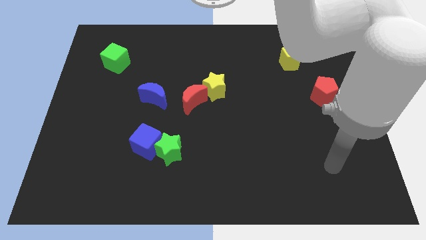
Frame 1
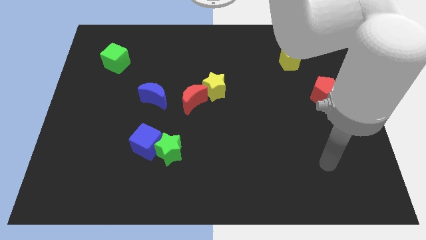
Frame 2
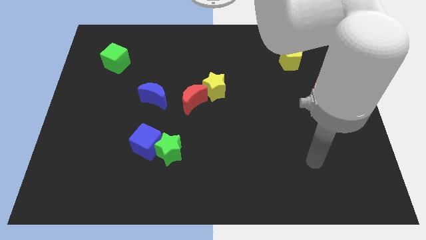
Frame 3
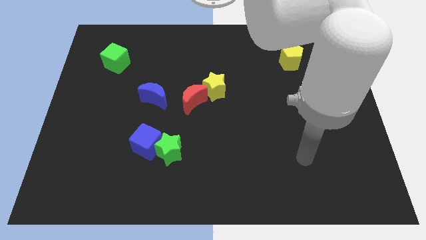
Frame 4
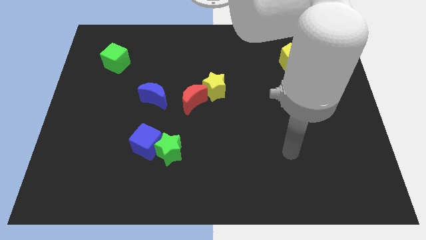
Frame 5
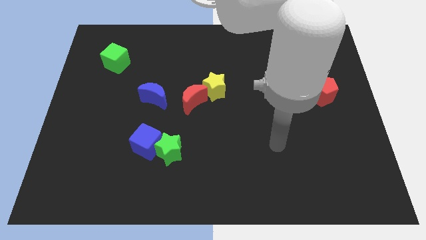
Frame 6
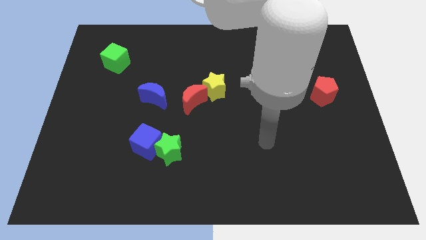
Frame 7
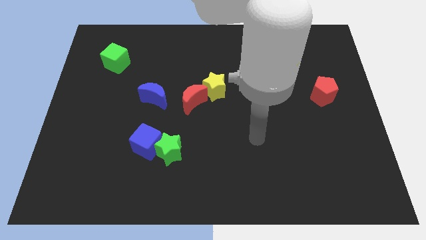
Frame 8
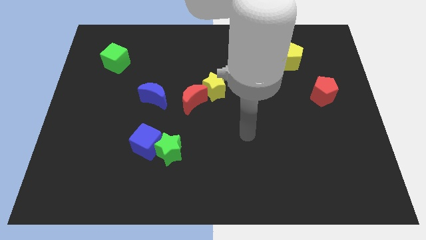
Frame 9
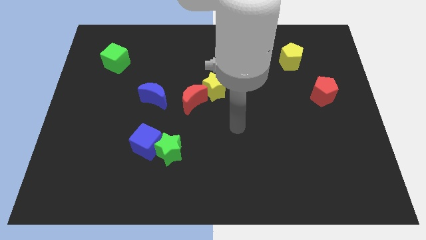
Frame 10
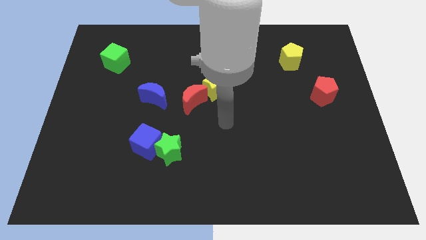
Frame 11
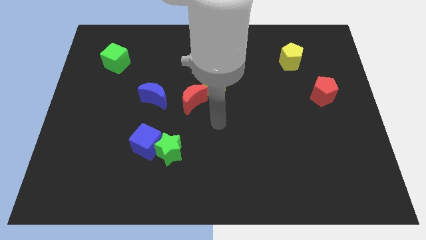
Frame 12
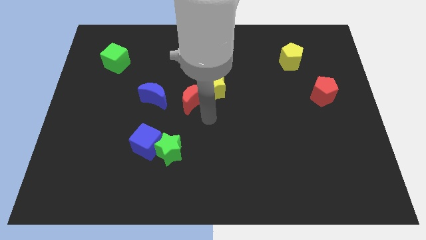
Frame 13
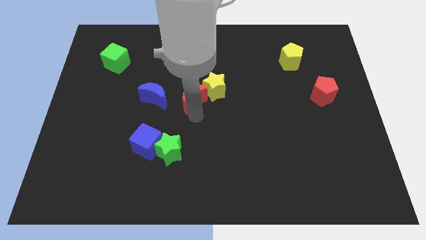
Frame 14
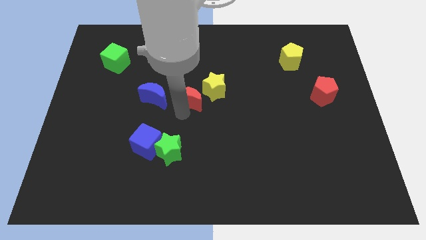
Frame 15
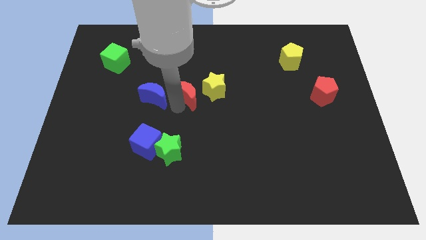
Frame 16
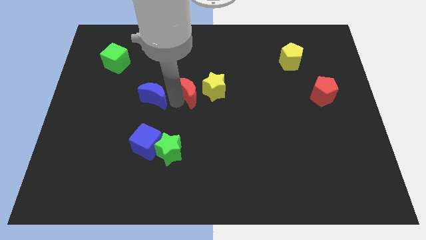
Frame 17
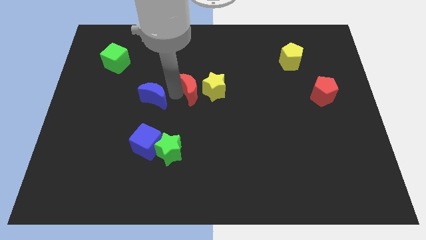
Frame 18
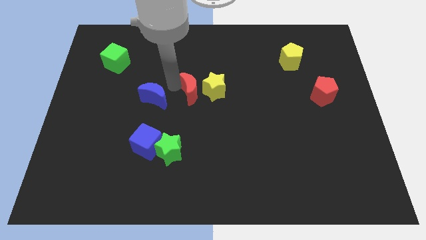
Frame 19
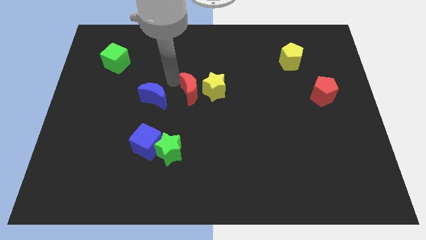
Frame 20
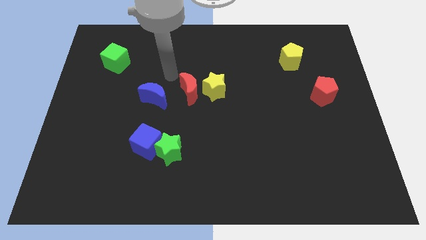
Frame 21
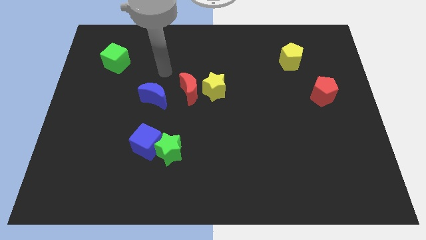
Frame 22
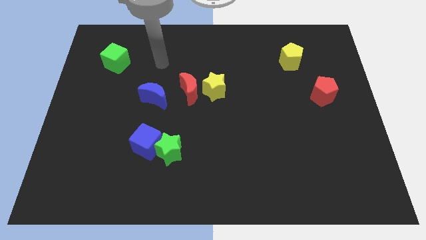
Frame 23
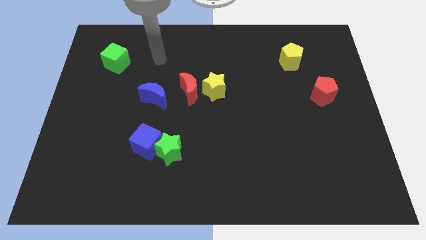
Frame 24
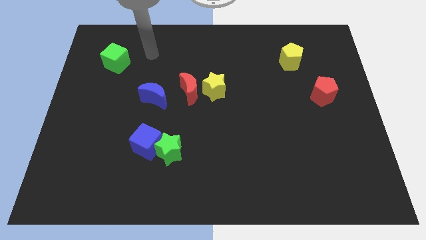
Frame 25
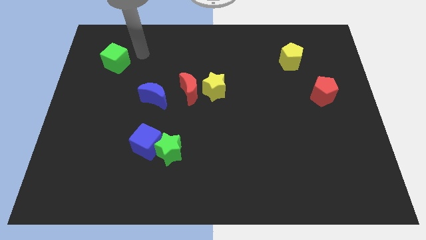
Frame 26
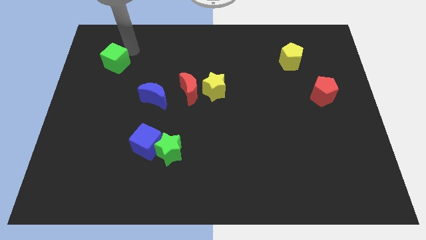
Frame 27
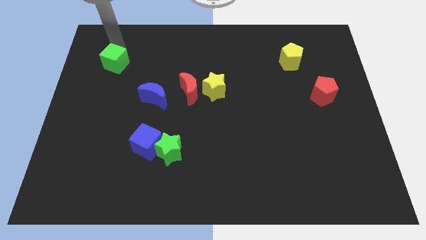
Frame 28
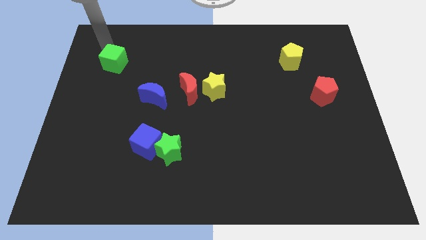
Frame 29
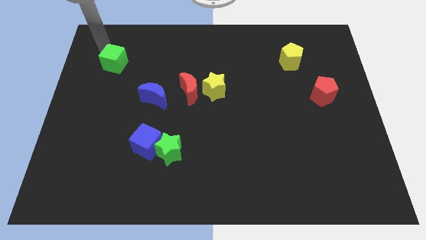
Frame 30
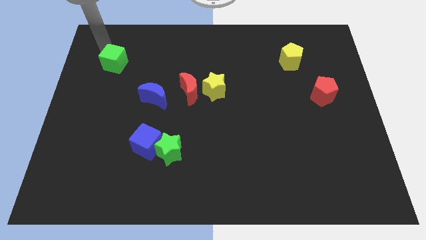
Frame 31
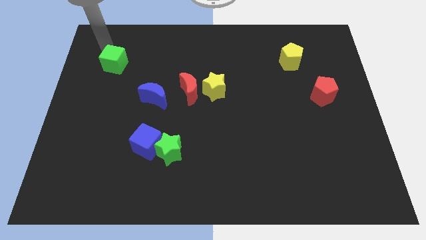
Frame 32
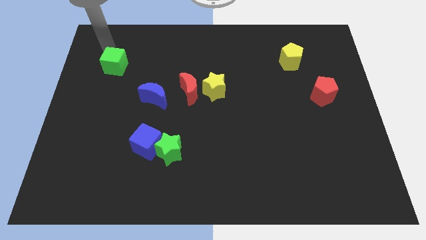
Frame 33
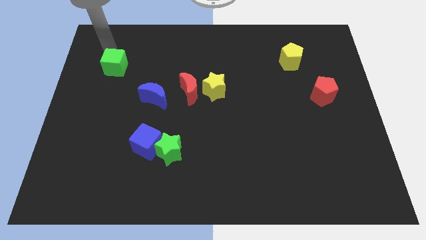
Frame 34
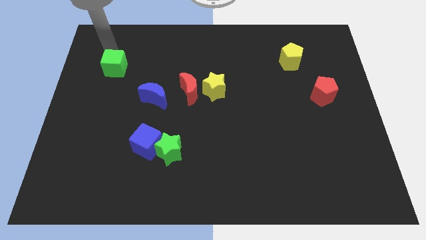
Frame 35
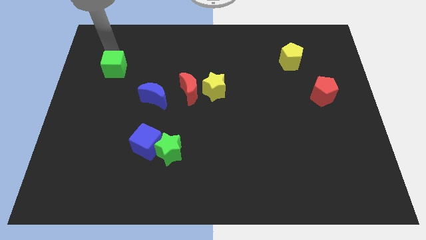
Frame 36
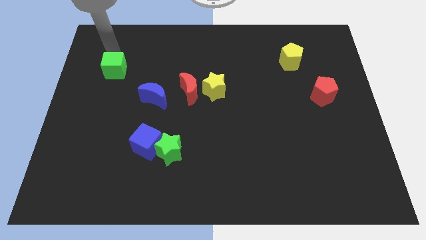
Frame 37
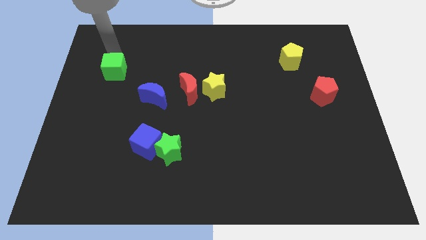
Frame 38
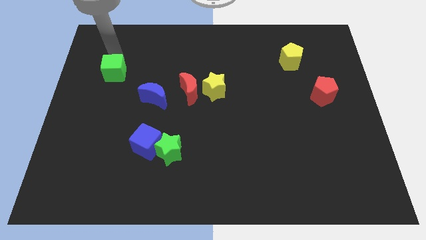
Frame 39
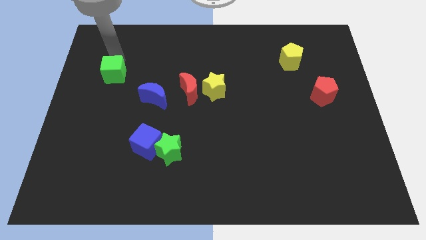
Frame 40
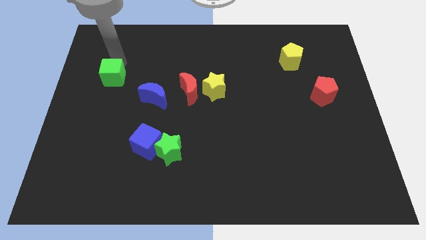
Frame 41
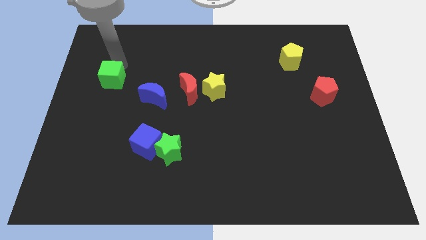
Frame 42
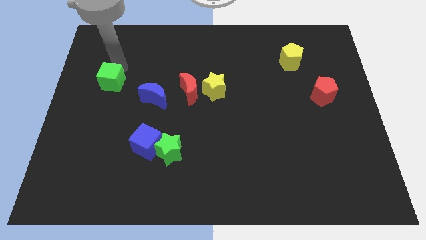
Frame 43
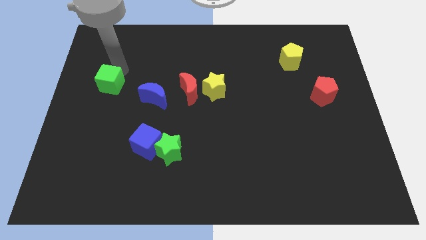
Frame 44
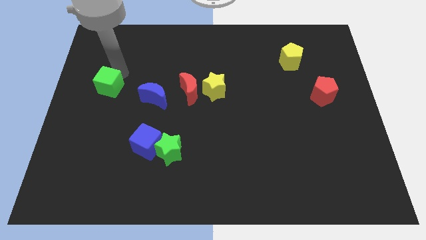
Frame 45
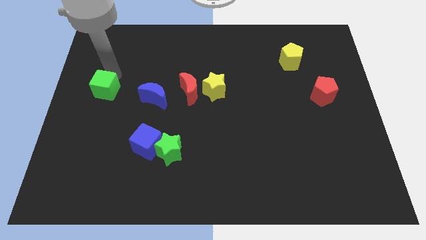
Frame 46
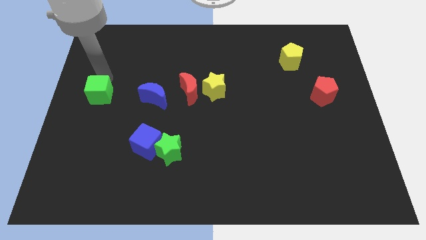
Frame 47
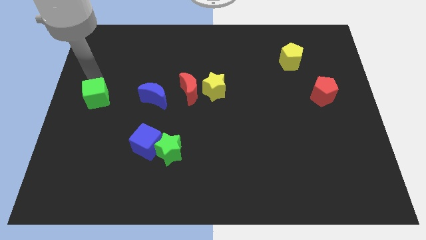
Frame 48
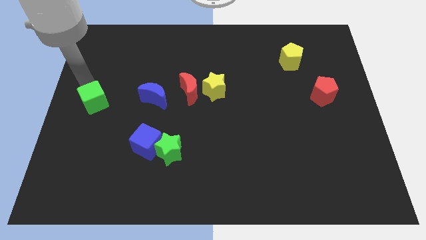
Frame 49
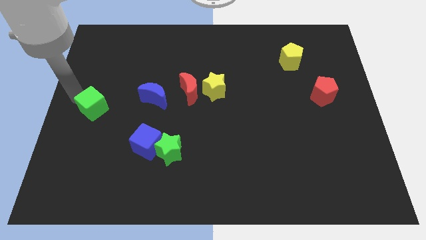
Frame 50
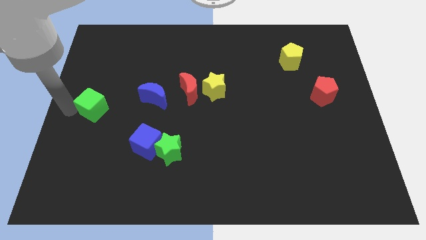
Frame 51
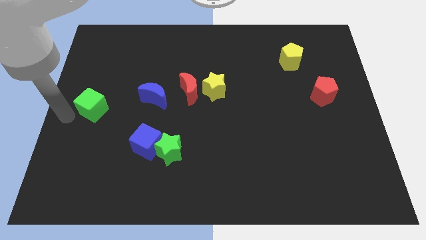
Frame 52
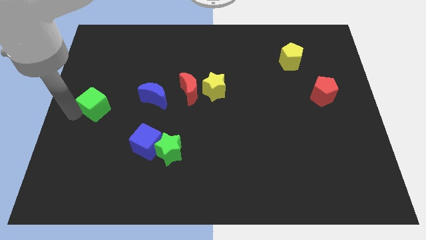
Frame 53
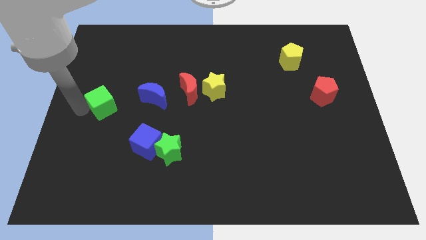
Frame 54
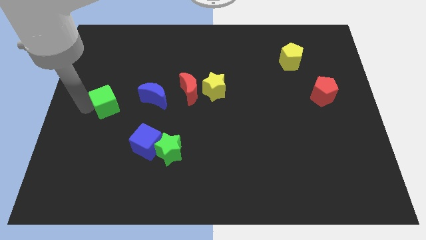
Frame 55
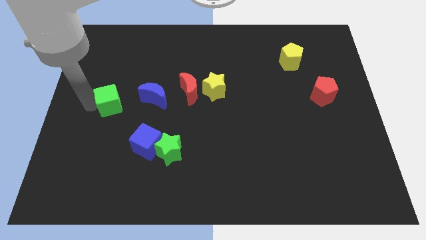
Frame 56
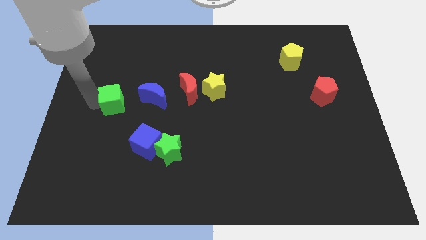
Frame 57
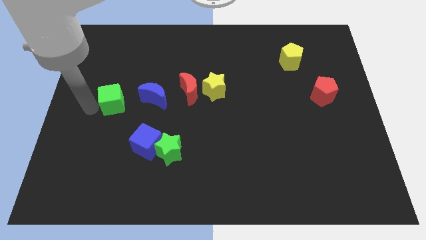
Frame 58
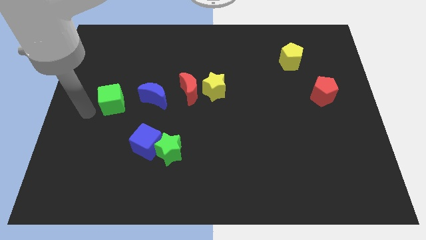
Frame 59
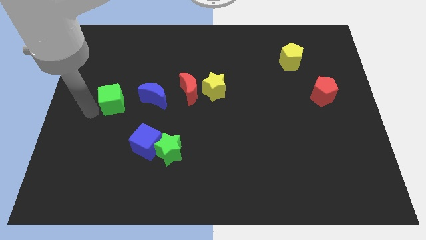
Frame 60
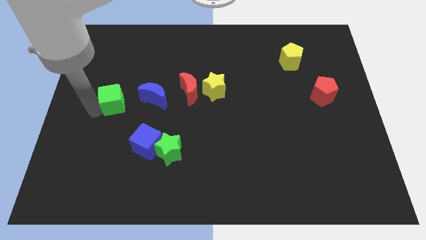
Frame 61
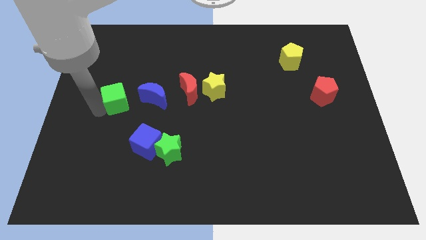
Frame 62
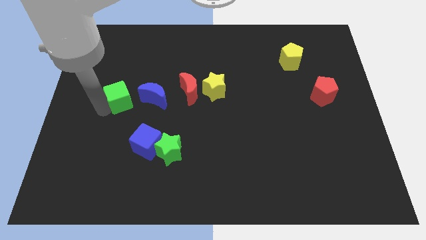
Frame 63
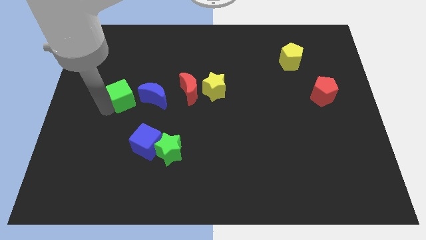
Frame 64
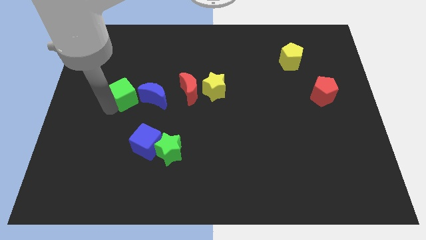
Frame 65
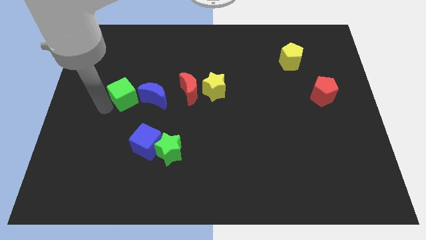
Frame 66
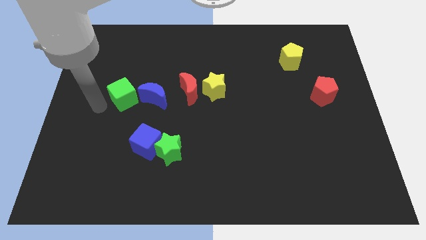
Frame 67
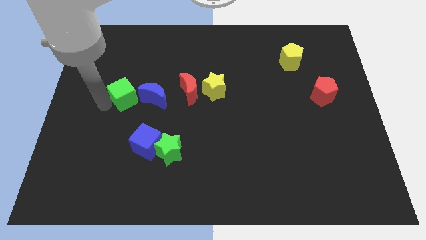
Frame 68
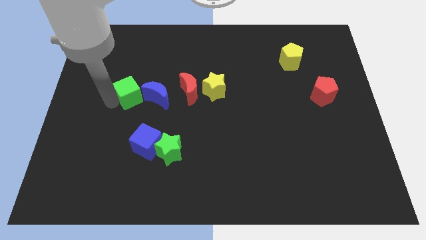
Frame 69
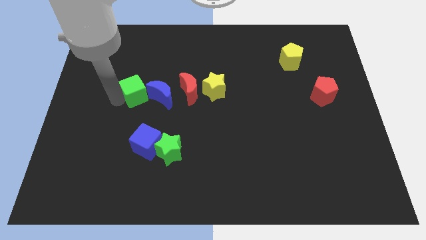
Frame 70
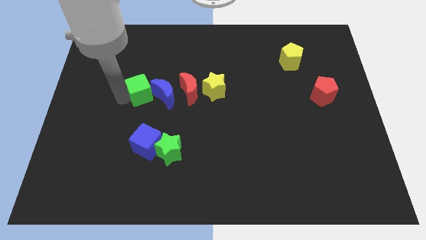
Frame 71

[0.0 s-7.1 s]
slide the green cube towards the blue moon
